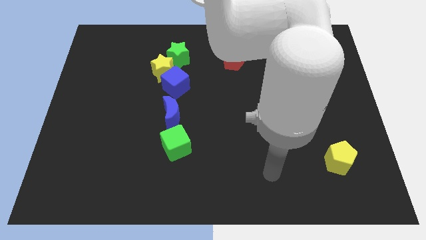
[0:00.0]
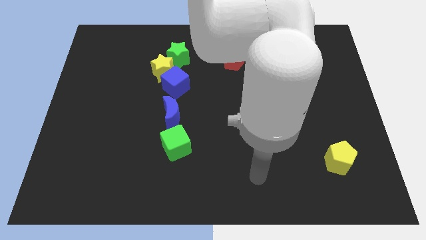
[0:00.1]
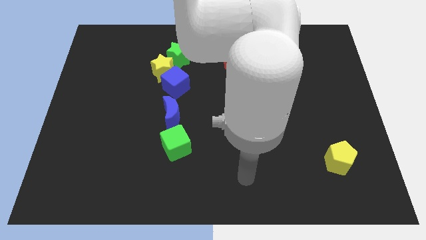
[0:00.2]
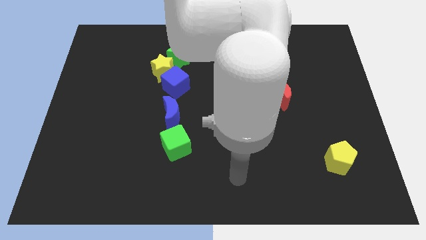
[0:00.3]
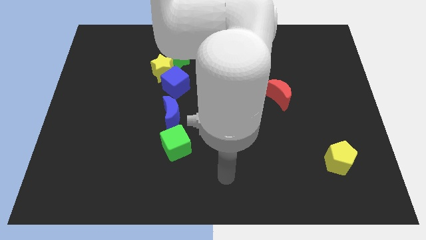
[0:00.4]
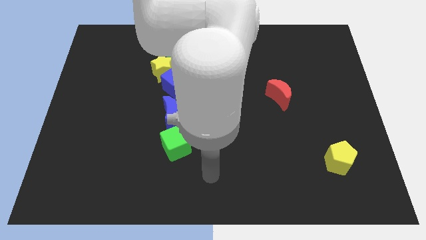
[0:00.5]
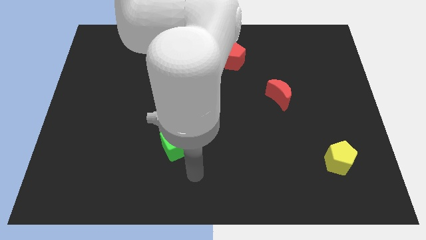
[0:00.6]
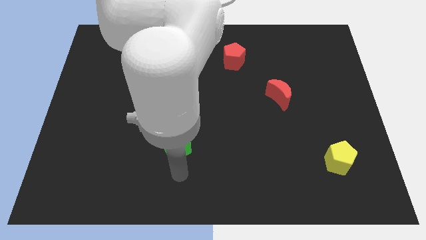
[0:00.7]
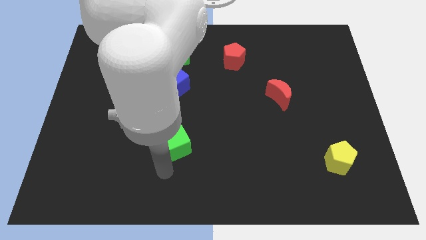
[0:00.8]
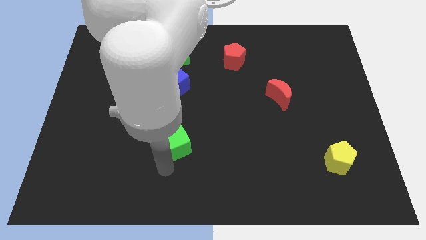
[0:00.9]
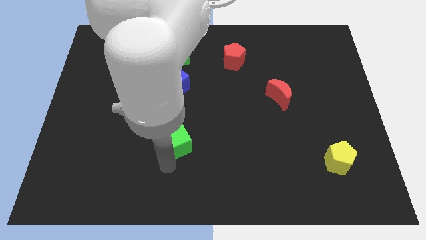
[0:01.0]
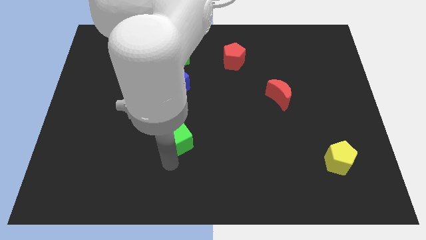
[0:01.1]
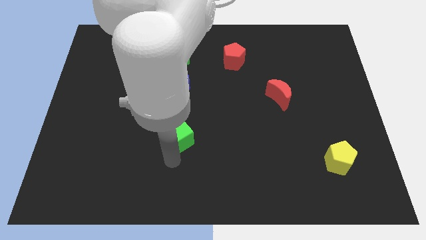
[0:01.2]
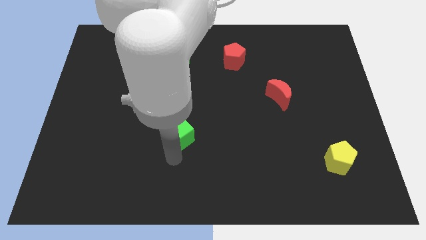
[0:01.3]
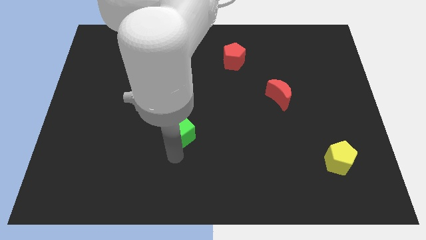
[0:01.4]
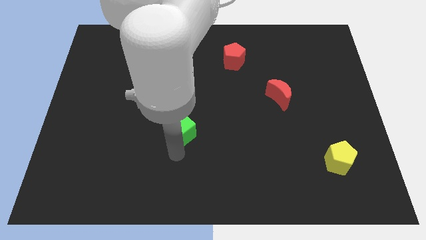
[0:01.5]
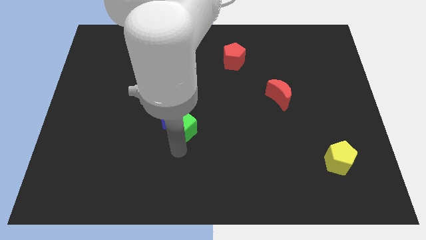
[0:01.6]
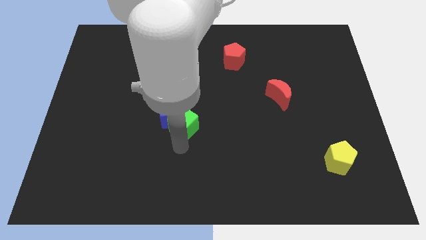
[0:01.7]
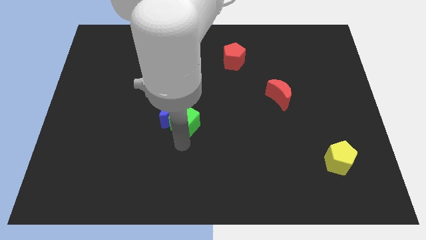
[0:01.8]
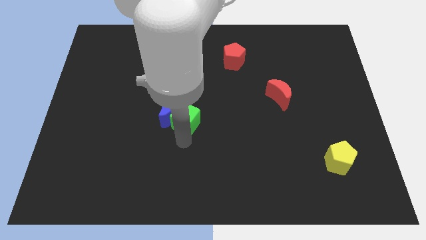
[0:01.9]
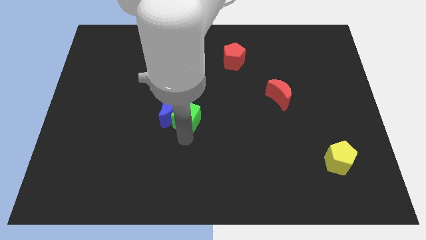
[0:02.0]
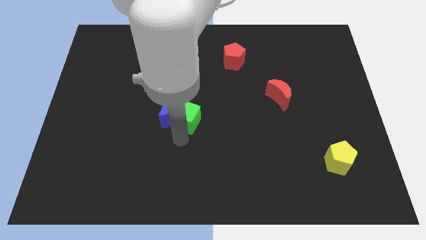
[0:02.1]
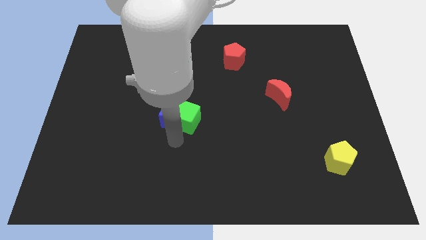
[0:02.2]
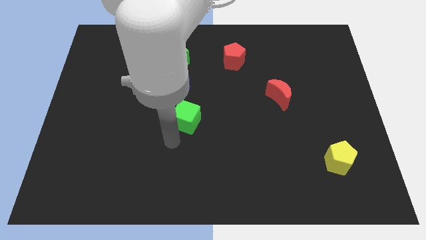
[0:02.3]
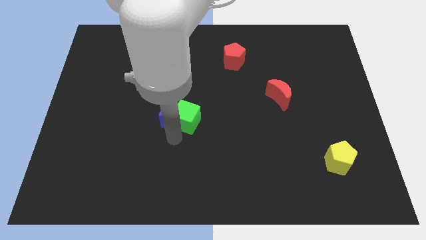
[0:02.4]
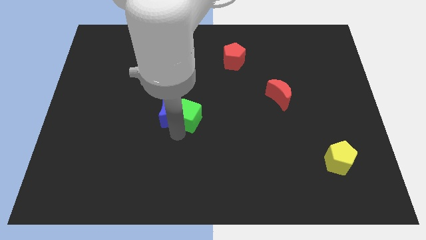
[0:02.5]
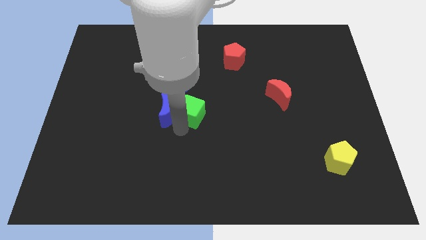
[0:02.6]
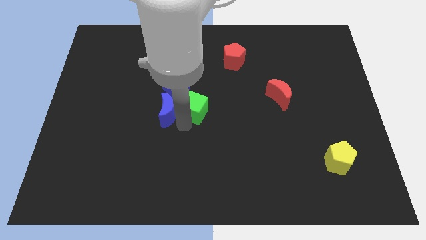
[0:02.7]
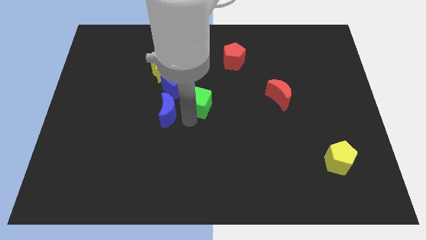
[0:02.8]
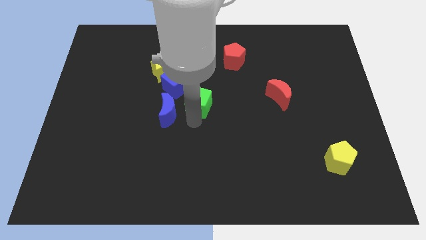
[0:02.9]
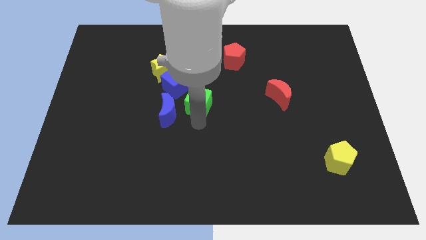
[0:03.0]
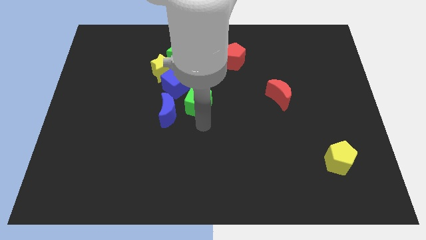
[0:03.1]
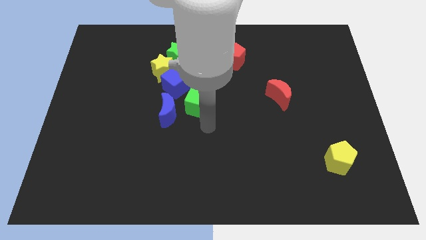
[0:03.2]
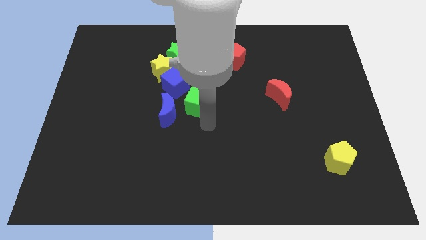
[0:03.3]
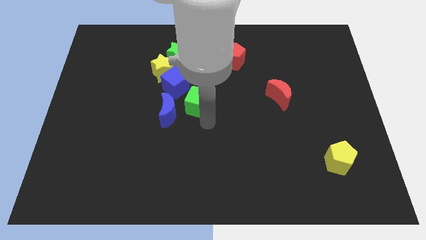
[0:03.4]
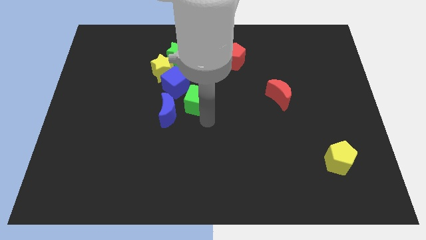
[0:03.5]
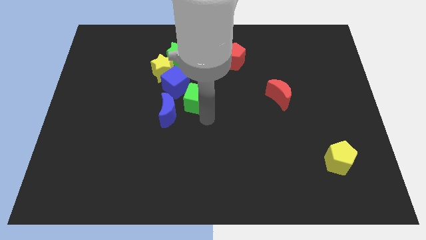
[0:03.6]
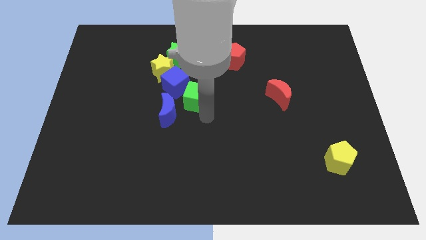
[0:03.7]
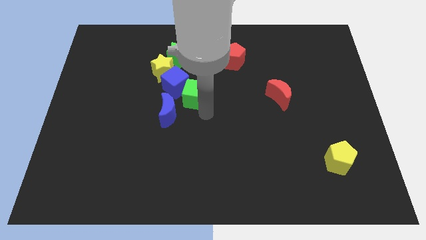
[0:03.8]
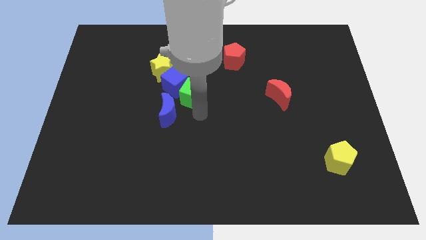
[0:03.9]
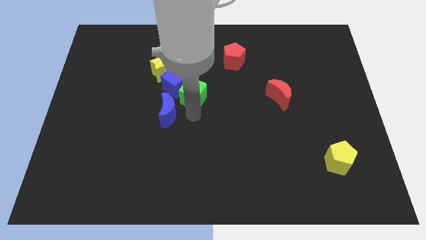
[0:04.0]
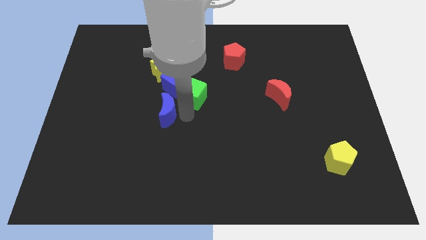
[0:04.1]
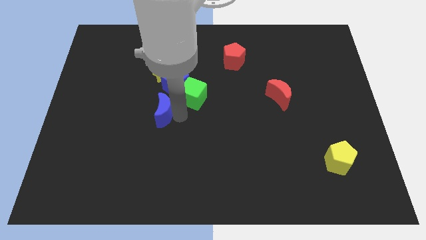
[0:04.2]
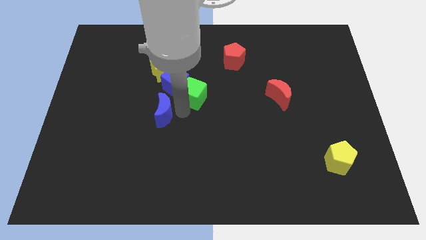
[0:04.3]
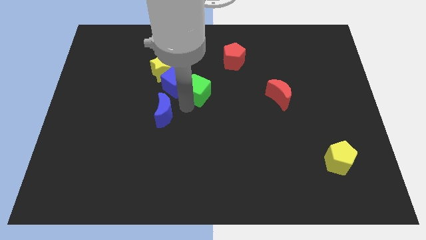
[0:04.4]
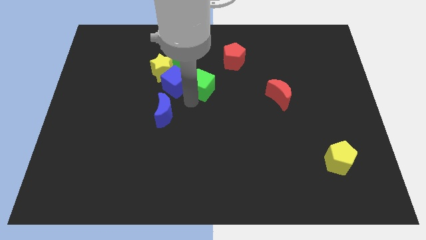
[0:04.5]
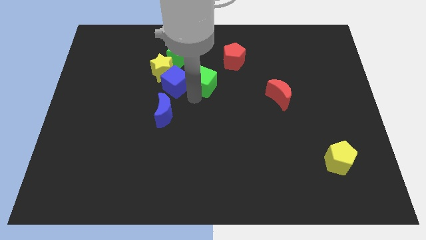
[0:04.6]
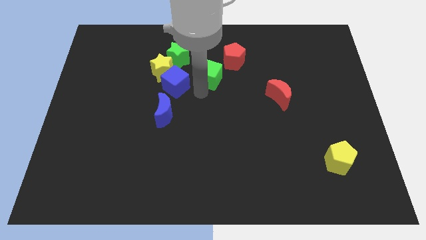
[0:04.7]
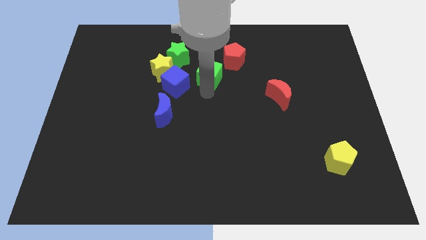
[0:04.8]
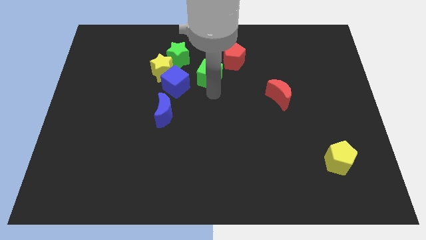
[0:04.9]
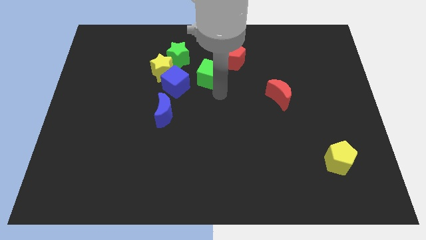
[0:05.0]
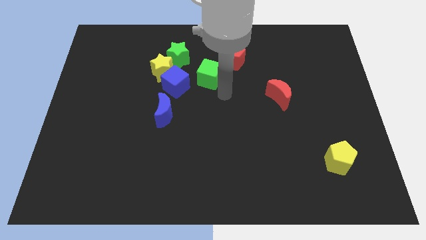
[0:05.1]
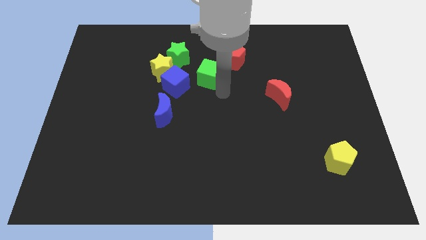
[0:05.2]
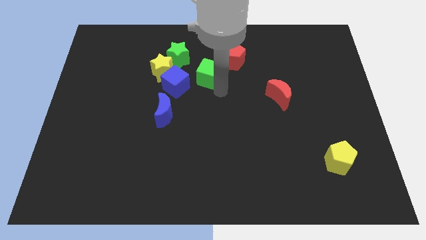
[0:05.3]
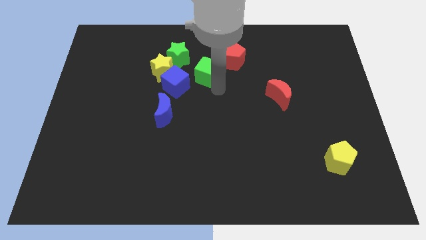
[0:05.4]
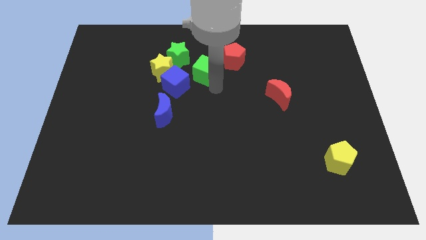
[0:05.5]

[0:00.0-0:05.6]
put the green cube left of the red pentagon

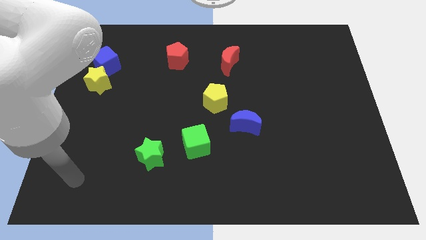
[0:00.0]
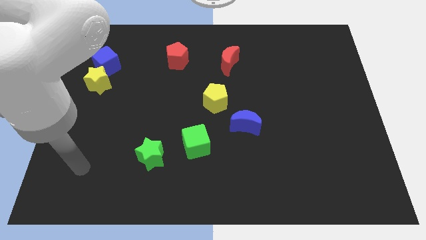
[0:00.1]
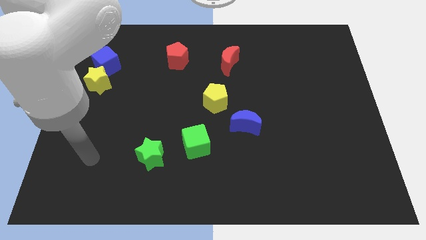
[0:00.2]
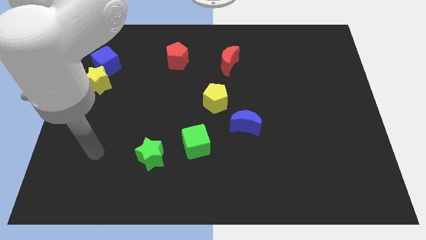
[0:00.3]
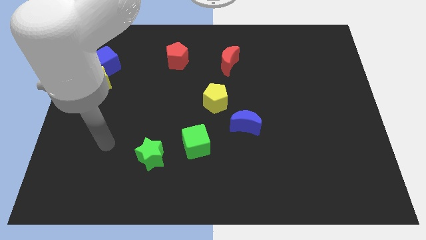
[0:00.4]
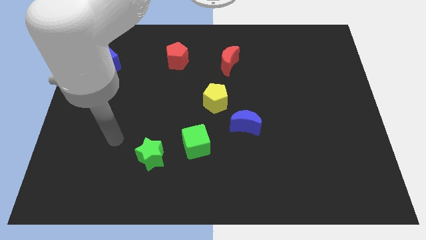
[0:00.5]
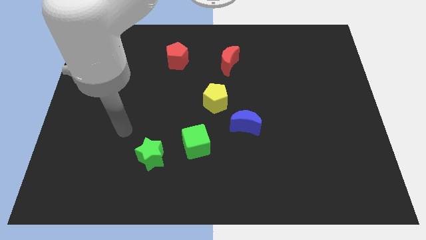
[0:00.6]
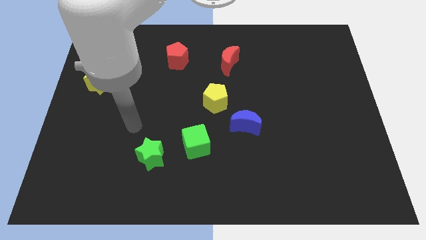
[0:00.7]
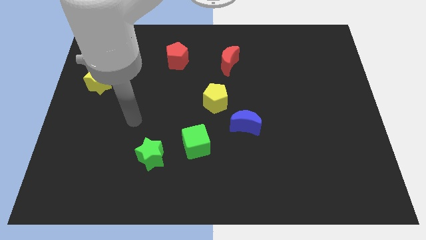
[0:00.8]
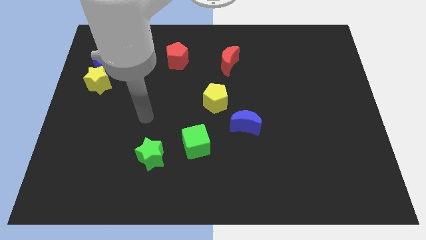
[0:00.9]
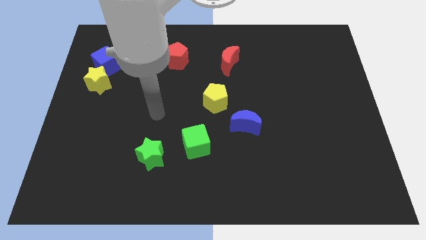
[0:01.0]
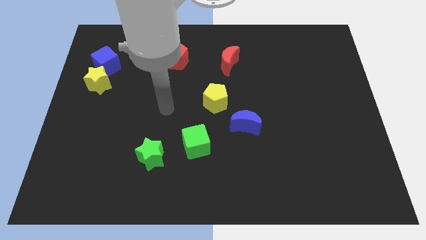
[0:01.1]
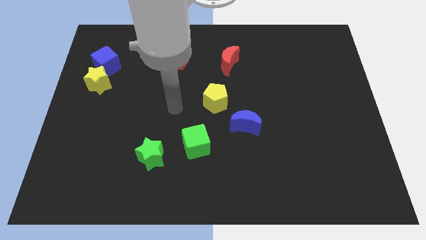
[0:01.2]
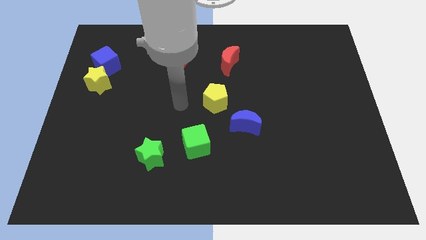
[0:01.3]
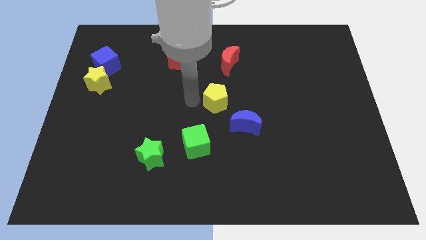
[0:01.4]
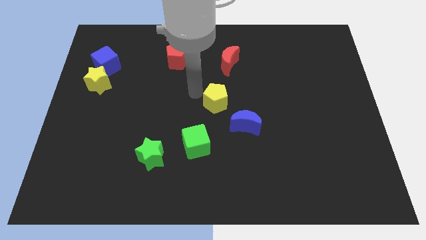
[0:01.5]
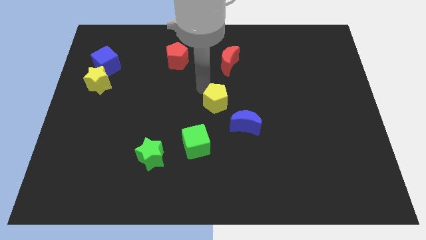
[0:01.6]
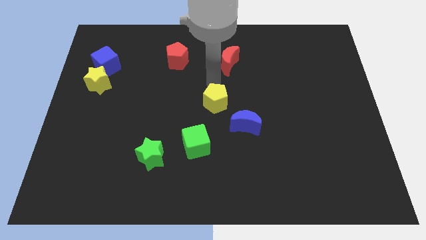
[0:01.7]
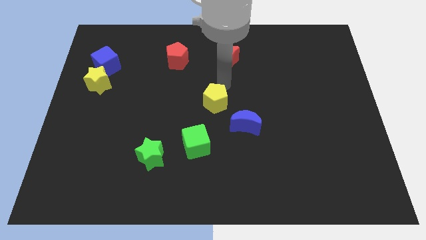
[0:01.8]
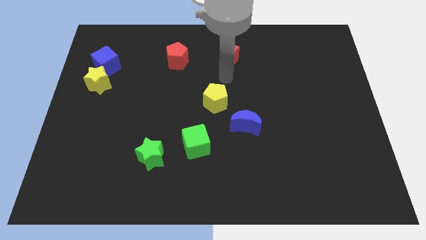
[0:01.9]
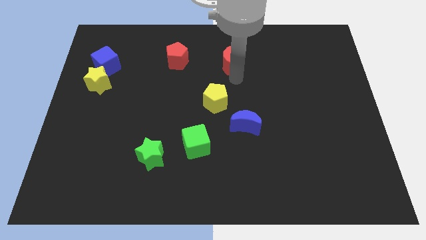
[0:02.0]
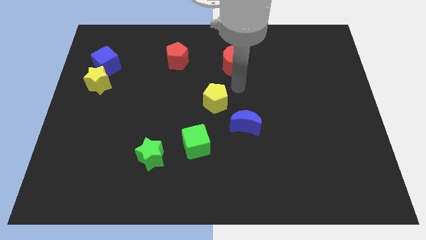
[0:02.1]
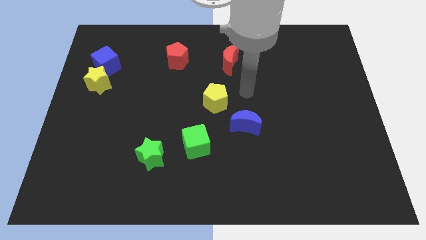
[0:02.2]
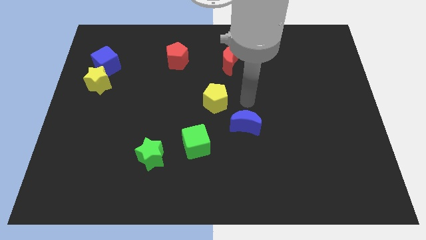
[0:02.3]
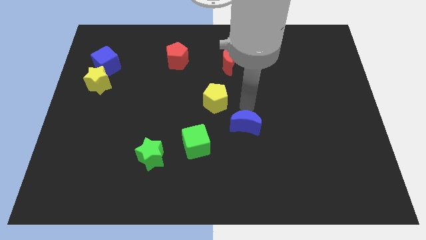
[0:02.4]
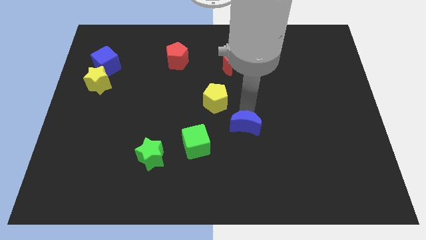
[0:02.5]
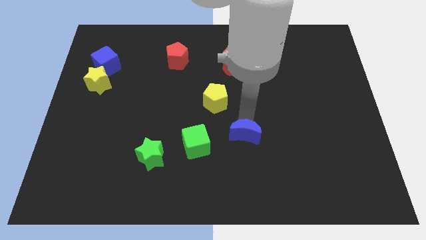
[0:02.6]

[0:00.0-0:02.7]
put the blue moon right of the green cube
